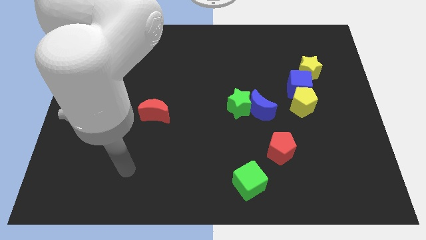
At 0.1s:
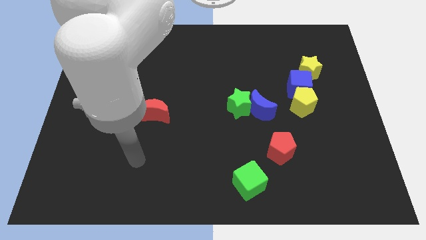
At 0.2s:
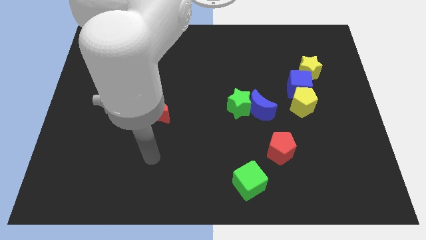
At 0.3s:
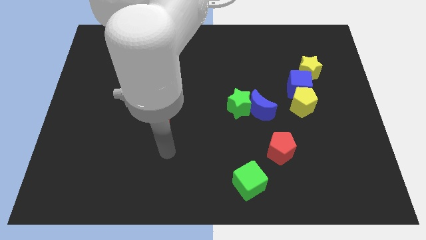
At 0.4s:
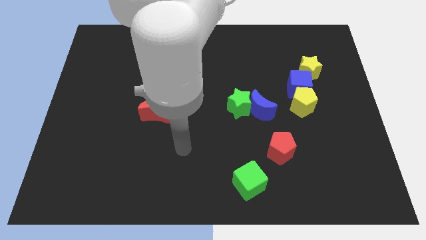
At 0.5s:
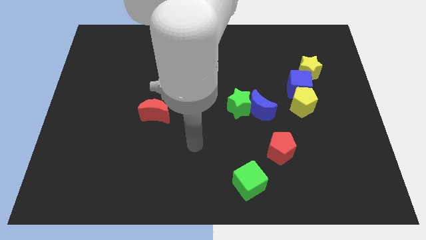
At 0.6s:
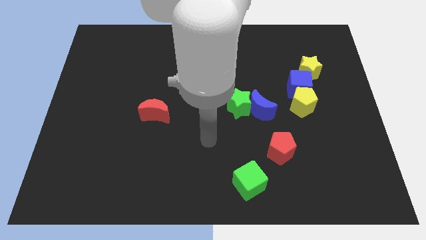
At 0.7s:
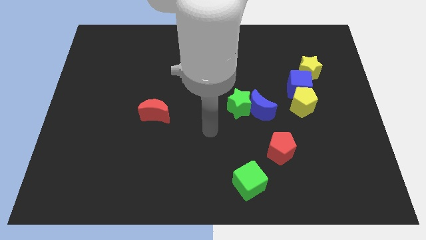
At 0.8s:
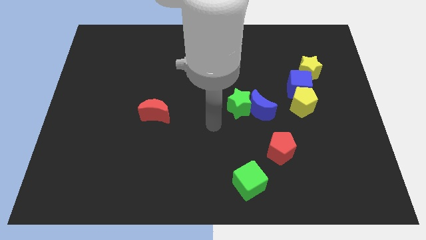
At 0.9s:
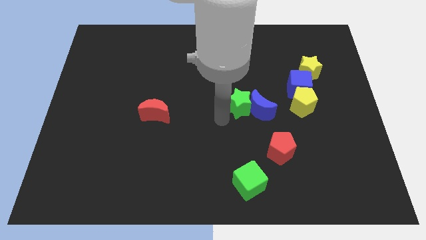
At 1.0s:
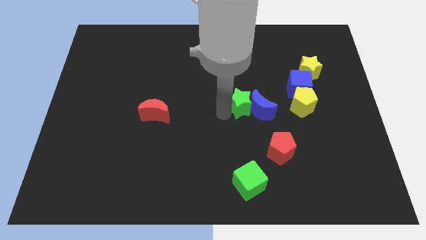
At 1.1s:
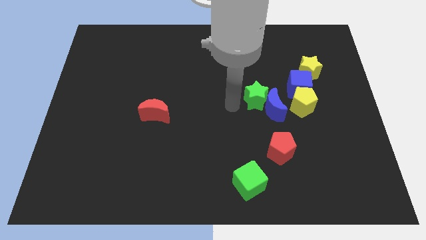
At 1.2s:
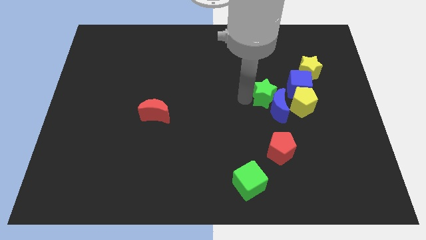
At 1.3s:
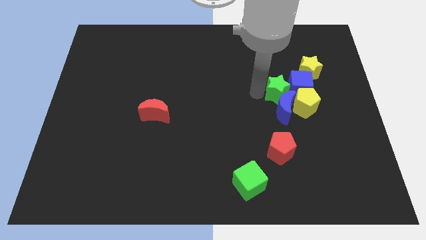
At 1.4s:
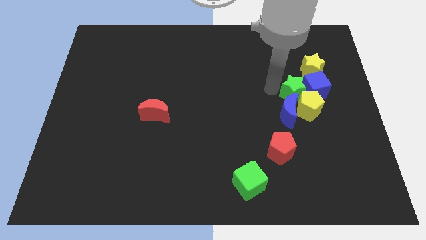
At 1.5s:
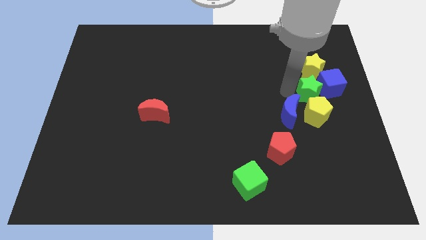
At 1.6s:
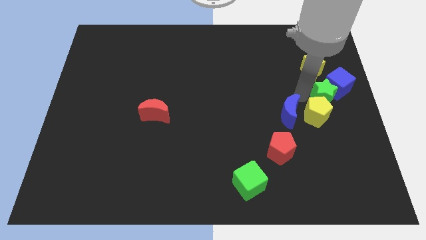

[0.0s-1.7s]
pull the blue moon apart from the green star

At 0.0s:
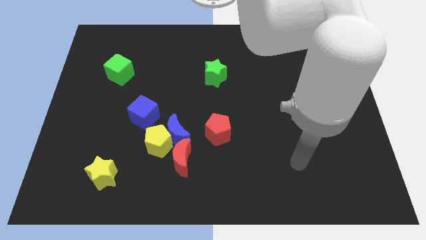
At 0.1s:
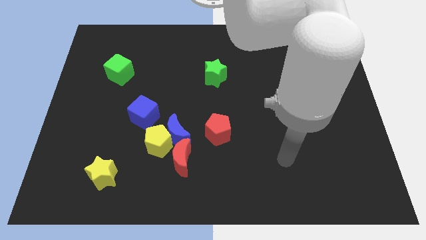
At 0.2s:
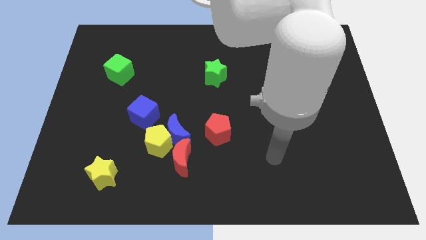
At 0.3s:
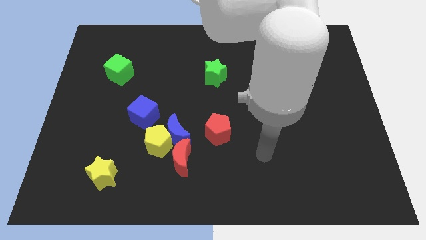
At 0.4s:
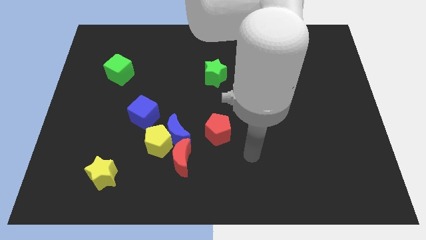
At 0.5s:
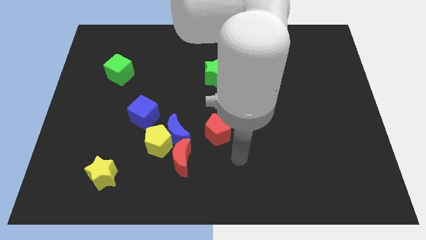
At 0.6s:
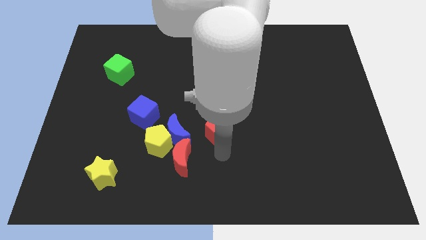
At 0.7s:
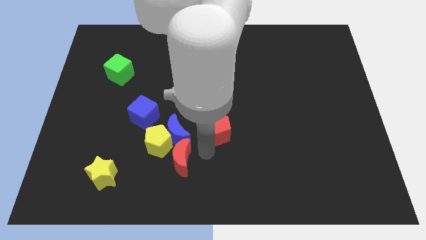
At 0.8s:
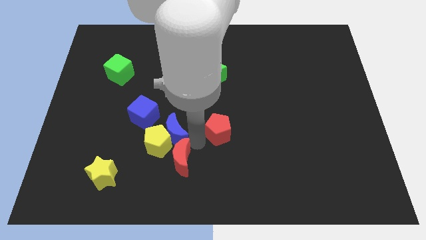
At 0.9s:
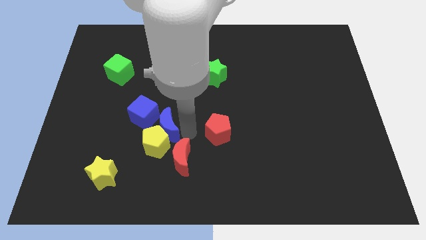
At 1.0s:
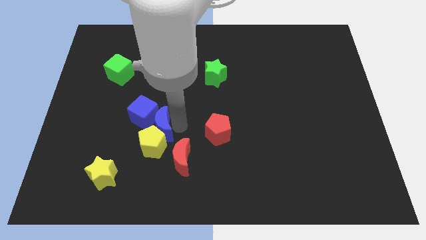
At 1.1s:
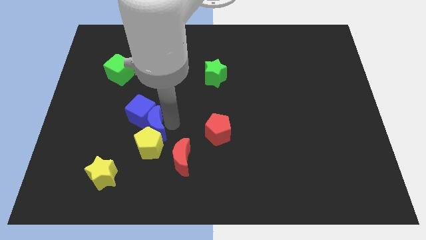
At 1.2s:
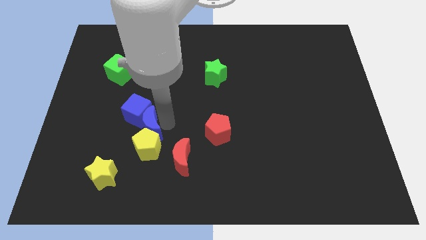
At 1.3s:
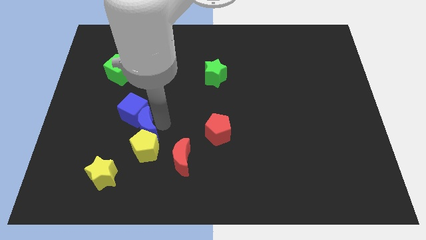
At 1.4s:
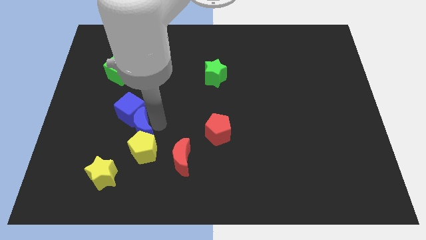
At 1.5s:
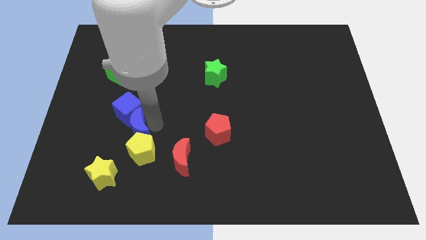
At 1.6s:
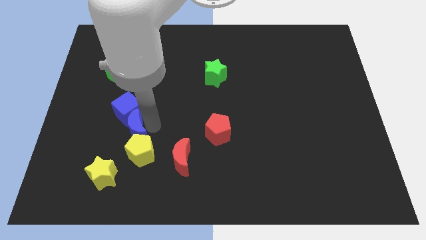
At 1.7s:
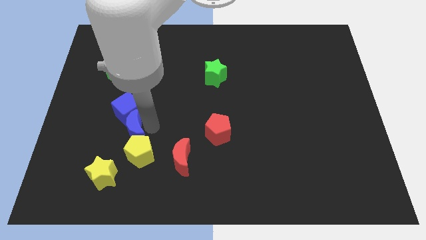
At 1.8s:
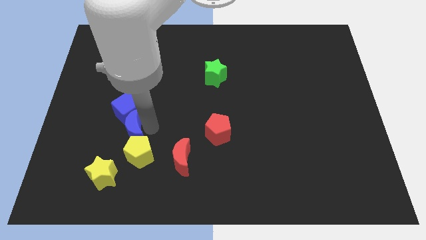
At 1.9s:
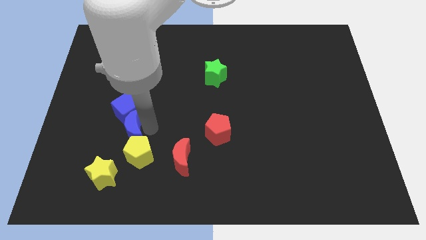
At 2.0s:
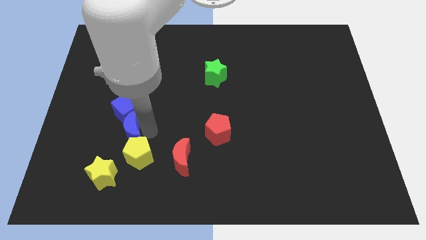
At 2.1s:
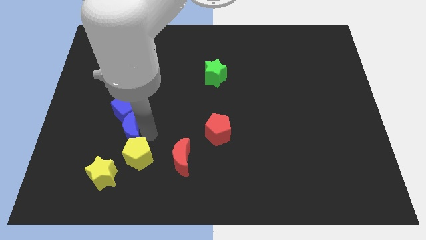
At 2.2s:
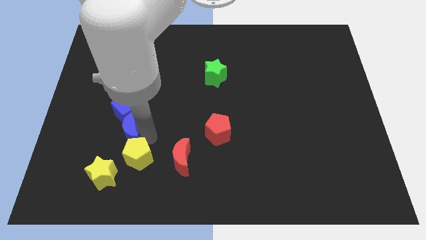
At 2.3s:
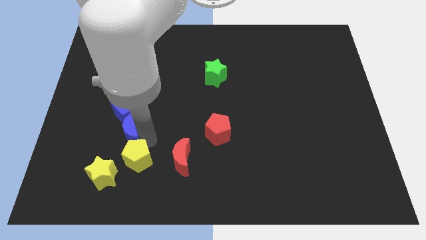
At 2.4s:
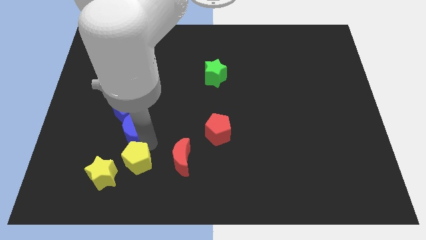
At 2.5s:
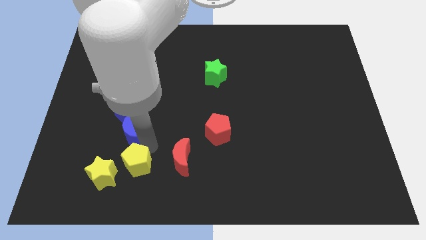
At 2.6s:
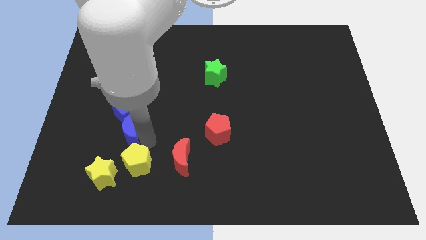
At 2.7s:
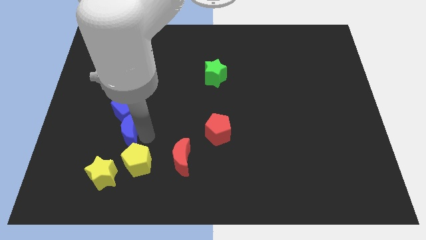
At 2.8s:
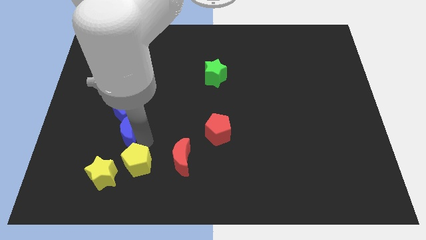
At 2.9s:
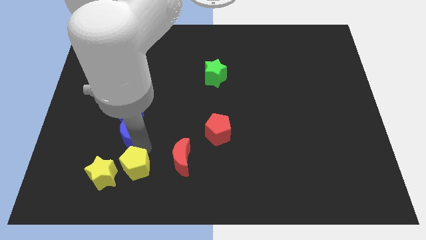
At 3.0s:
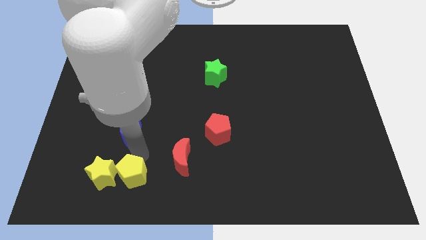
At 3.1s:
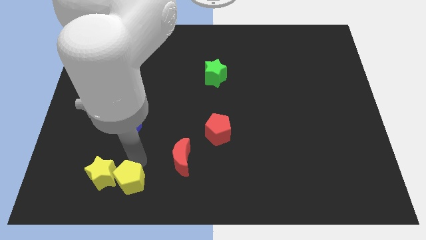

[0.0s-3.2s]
pull the yellow pentagon apart from the group of blocks

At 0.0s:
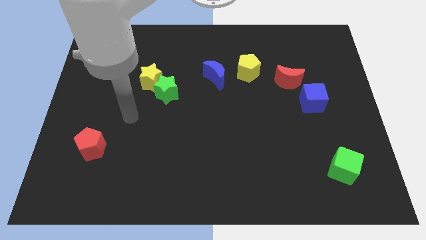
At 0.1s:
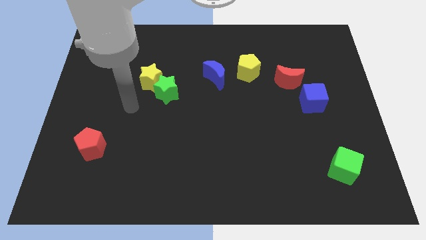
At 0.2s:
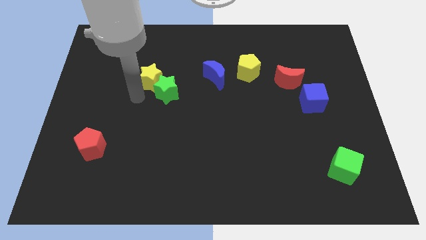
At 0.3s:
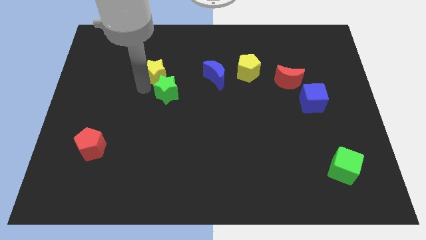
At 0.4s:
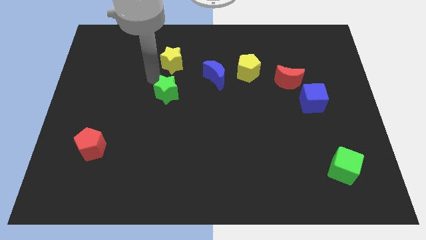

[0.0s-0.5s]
move the green star away from the yellow star

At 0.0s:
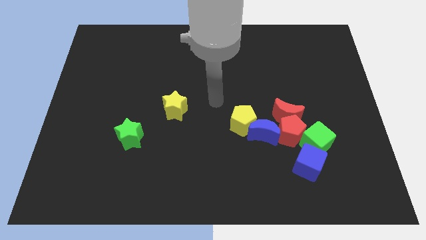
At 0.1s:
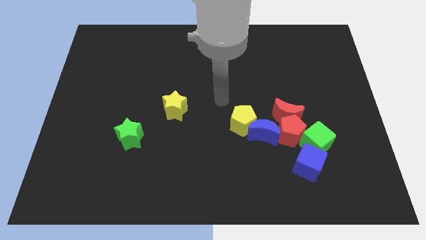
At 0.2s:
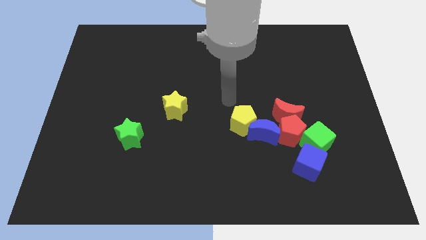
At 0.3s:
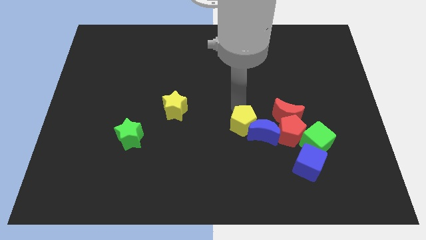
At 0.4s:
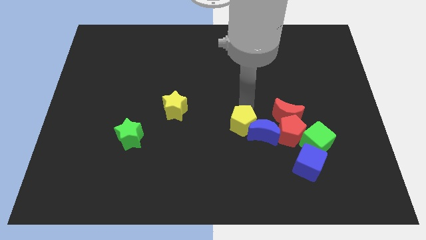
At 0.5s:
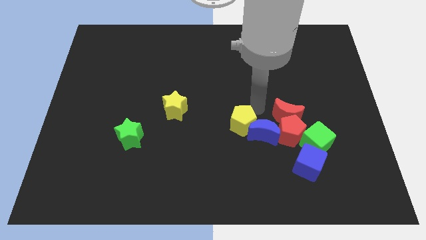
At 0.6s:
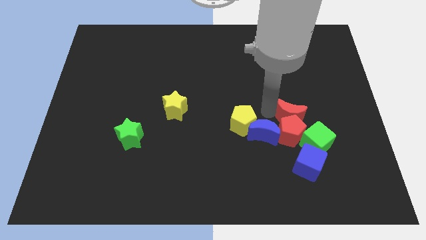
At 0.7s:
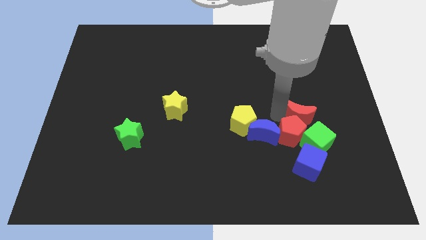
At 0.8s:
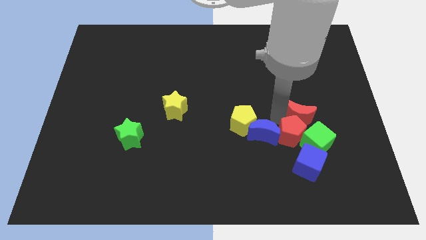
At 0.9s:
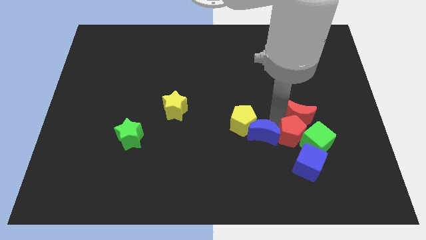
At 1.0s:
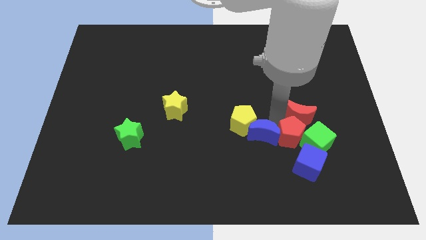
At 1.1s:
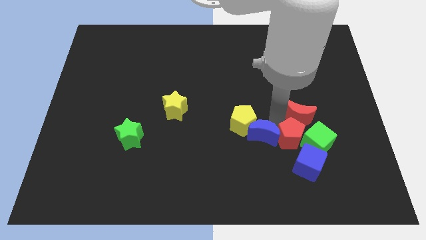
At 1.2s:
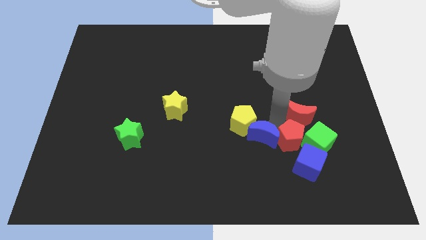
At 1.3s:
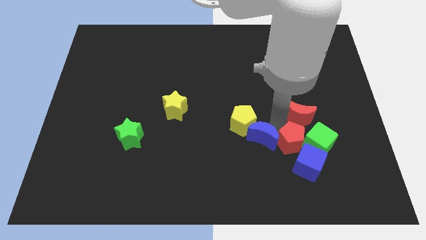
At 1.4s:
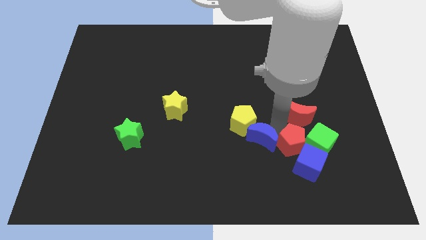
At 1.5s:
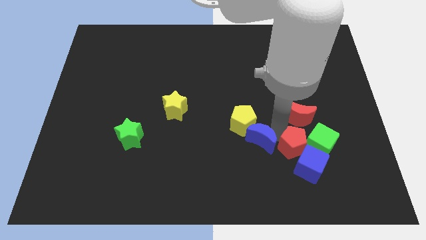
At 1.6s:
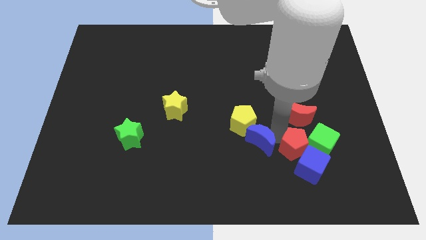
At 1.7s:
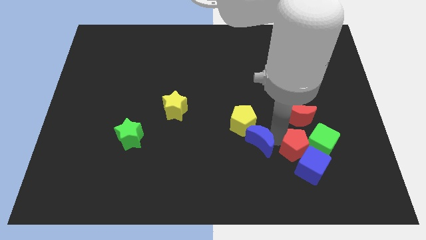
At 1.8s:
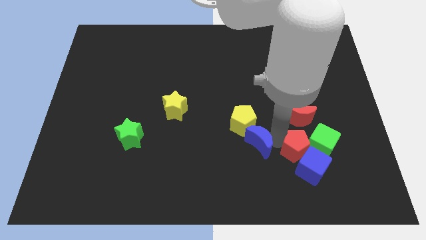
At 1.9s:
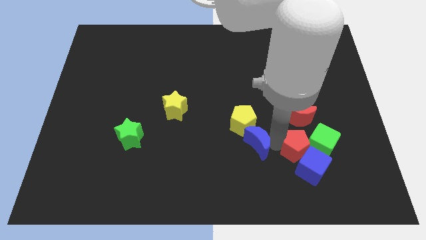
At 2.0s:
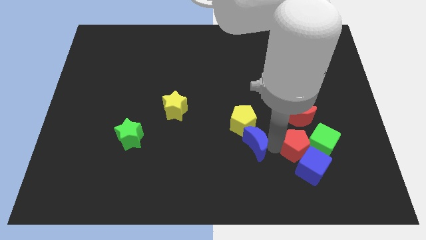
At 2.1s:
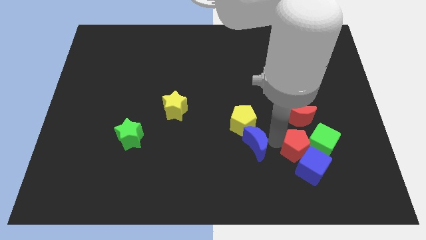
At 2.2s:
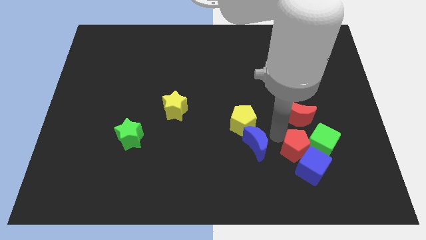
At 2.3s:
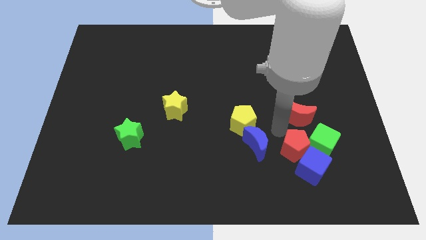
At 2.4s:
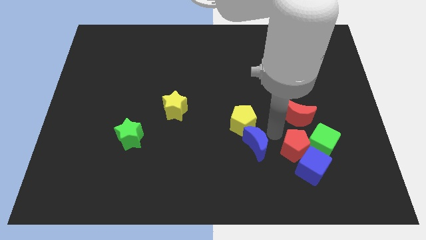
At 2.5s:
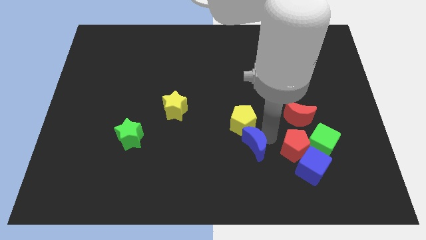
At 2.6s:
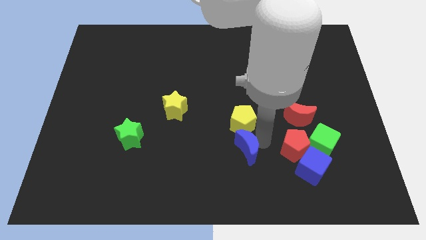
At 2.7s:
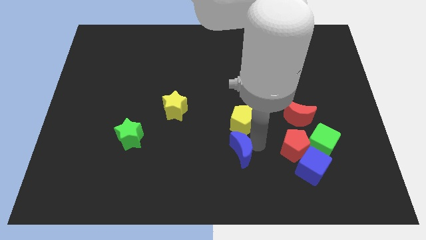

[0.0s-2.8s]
move the blue moon away from the yellow pentagon, red pentagon, and red moon

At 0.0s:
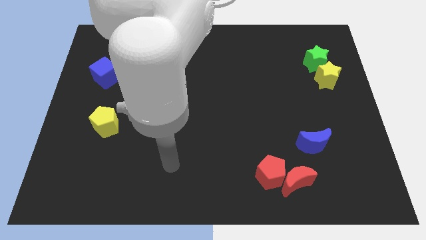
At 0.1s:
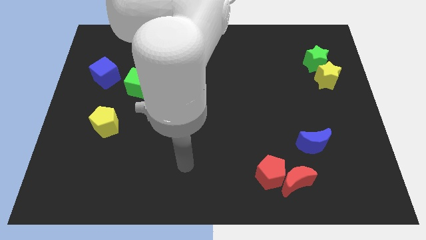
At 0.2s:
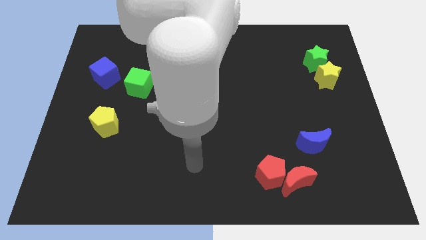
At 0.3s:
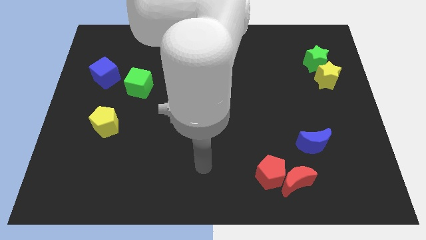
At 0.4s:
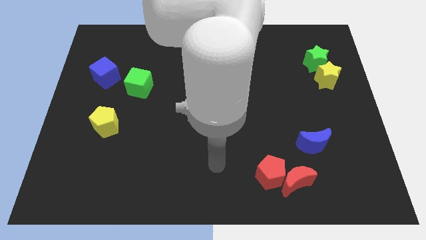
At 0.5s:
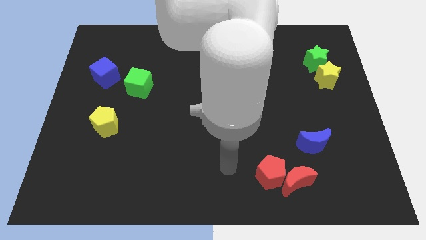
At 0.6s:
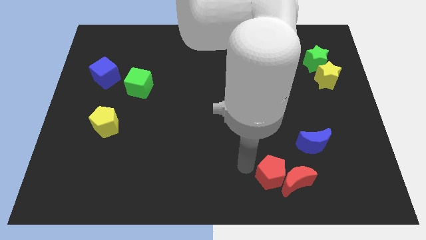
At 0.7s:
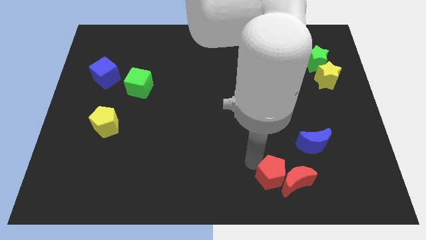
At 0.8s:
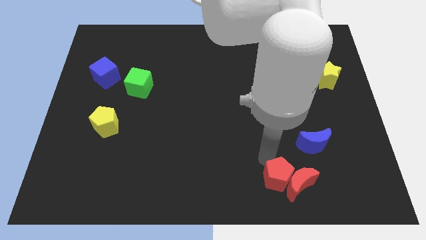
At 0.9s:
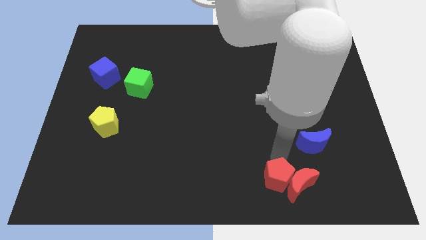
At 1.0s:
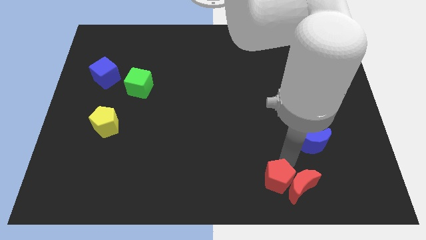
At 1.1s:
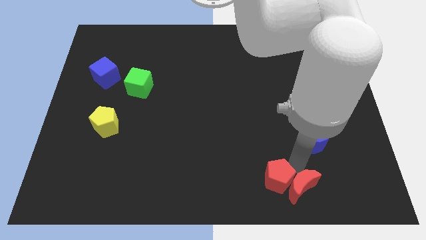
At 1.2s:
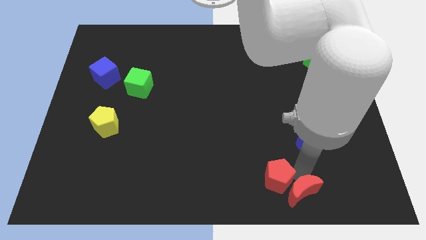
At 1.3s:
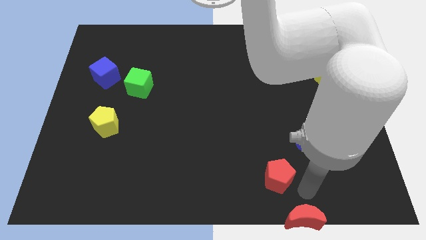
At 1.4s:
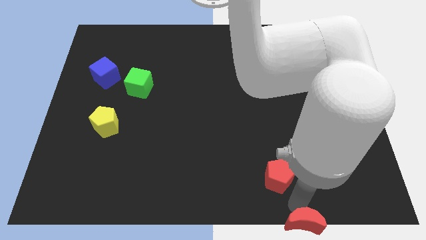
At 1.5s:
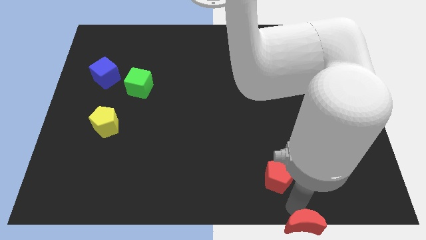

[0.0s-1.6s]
pull the red pentagon apart from the red moon
